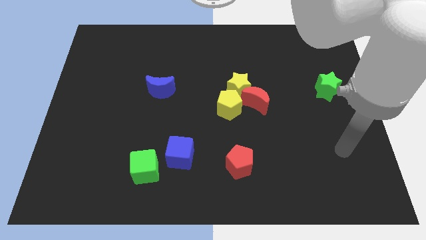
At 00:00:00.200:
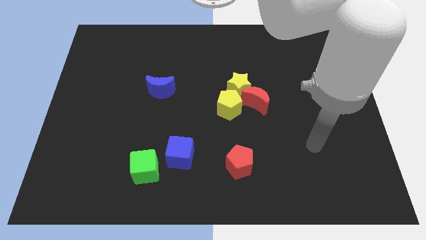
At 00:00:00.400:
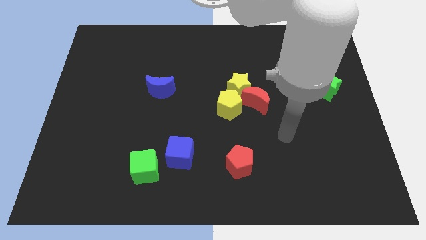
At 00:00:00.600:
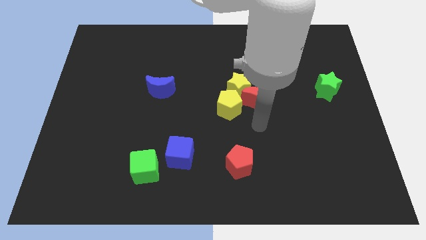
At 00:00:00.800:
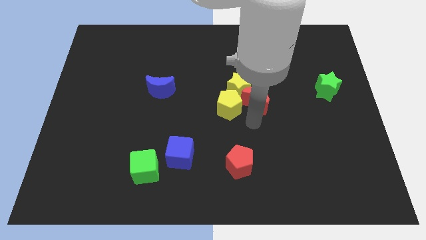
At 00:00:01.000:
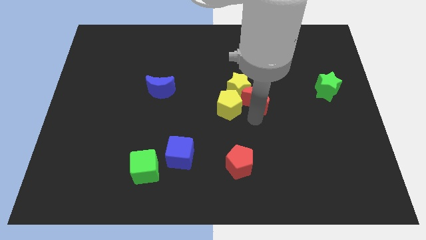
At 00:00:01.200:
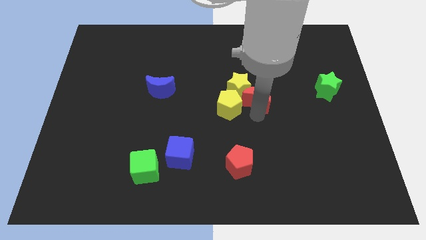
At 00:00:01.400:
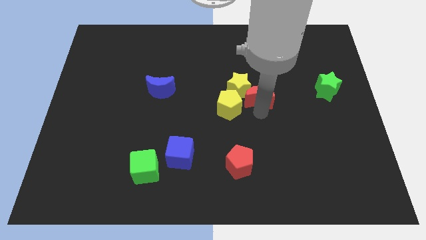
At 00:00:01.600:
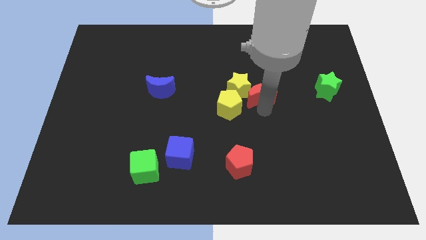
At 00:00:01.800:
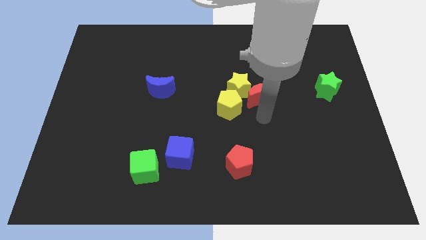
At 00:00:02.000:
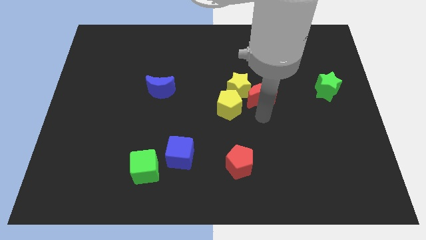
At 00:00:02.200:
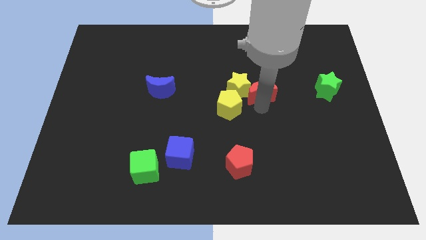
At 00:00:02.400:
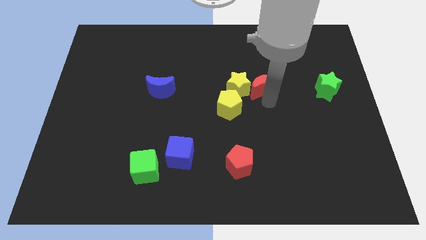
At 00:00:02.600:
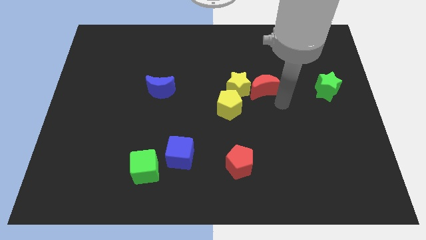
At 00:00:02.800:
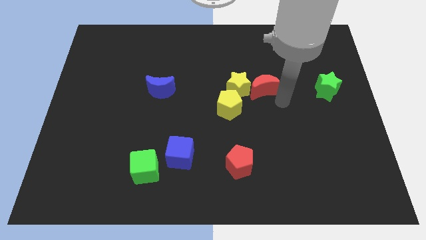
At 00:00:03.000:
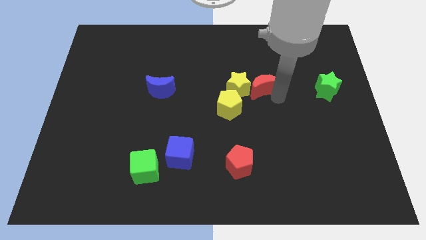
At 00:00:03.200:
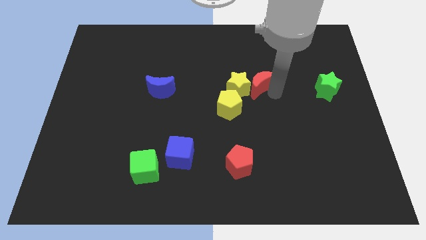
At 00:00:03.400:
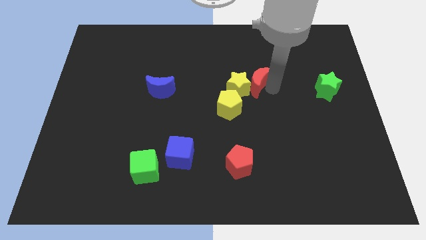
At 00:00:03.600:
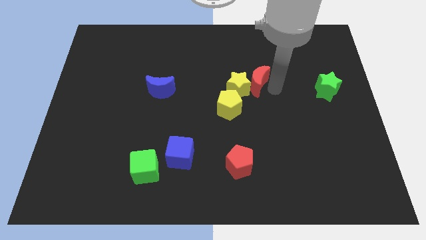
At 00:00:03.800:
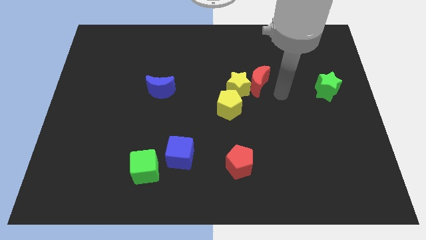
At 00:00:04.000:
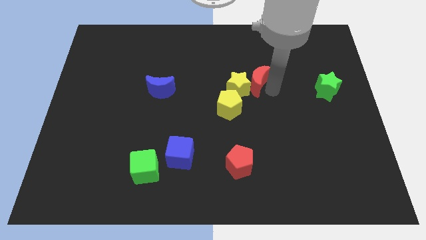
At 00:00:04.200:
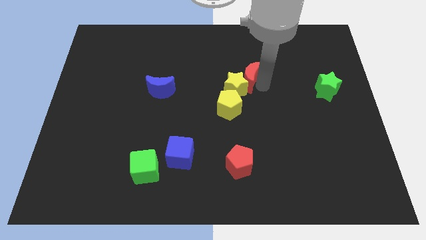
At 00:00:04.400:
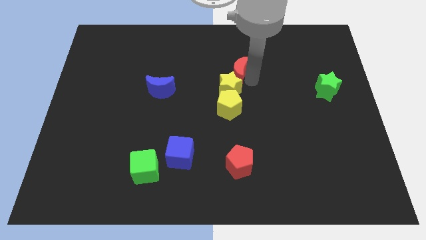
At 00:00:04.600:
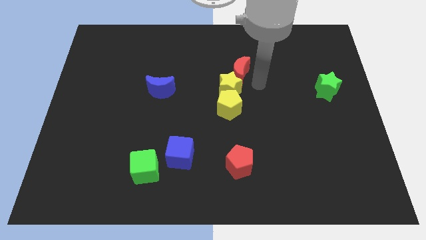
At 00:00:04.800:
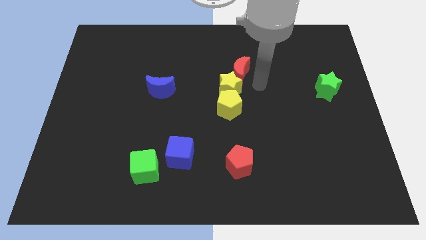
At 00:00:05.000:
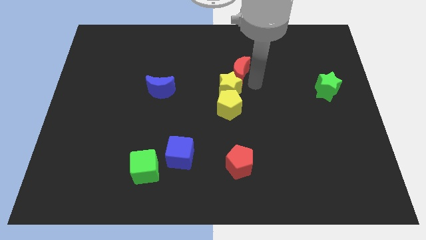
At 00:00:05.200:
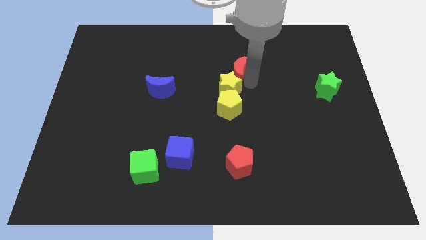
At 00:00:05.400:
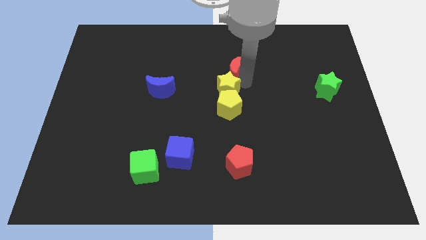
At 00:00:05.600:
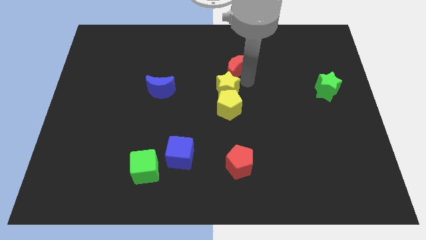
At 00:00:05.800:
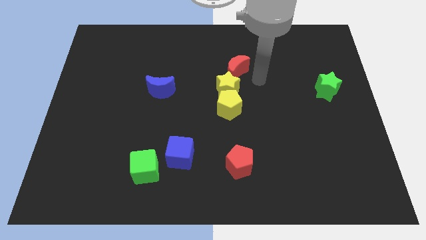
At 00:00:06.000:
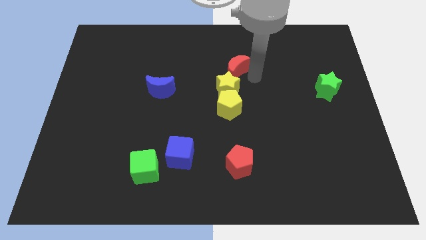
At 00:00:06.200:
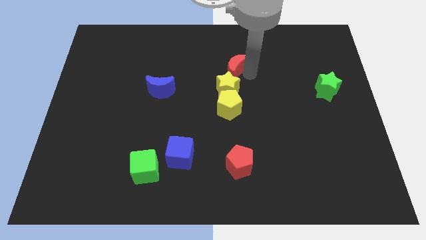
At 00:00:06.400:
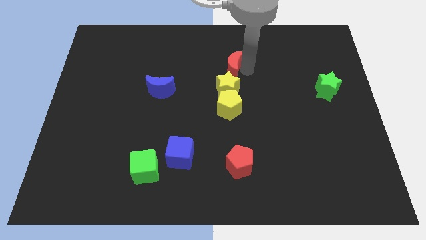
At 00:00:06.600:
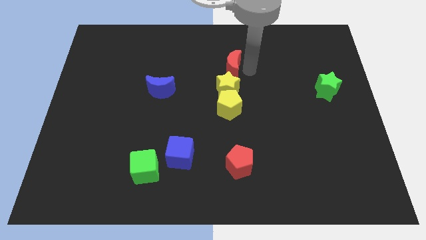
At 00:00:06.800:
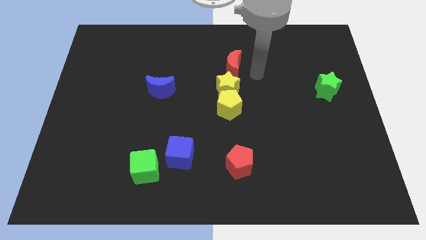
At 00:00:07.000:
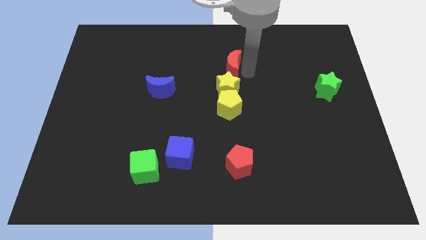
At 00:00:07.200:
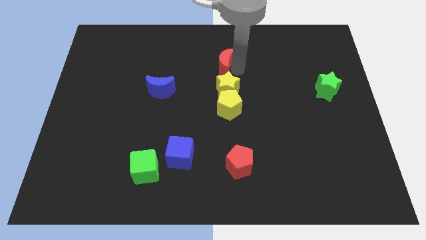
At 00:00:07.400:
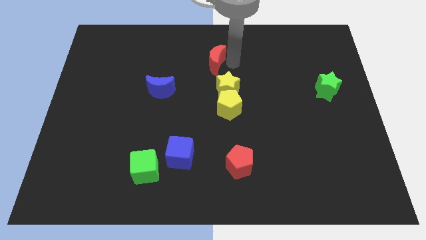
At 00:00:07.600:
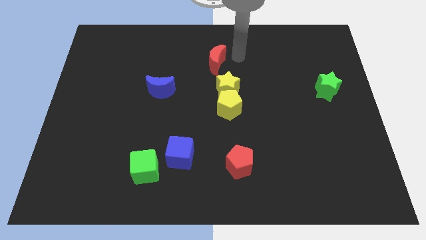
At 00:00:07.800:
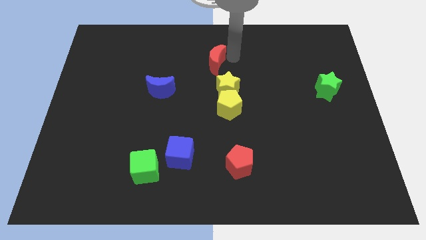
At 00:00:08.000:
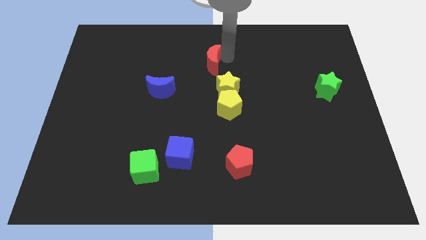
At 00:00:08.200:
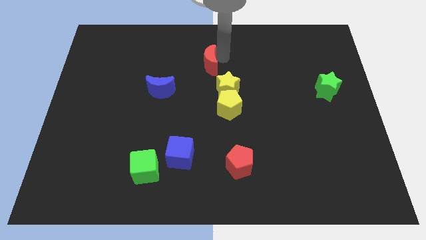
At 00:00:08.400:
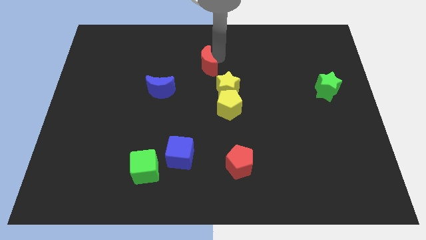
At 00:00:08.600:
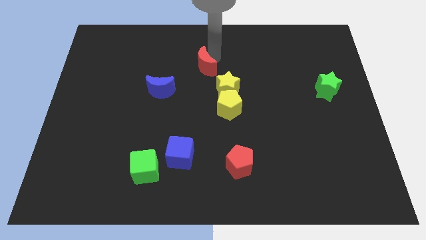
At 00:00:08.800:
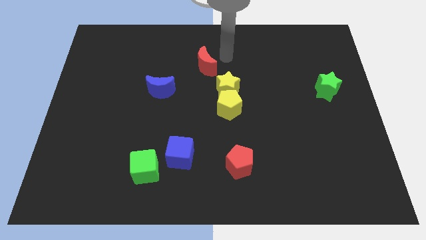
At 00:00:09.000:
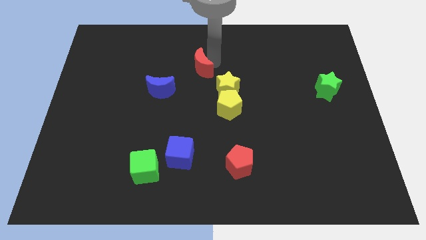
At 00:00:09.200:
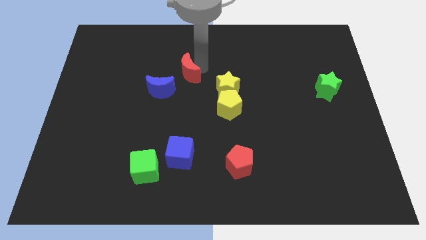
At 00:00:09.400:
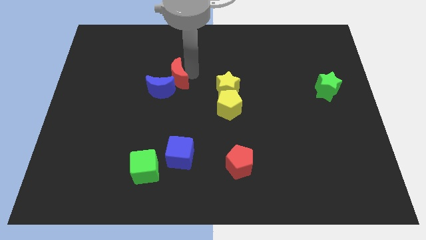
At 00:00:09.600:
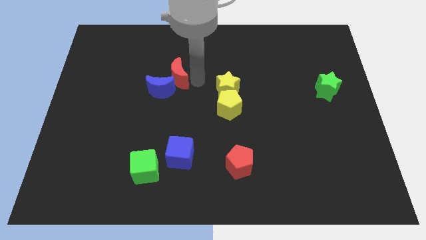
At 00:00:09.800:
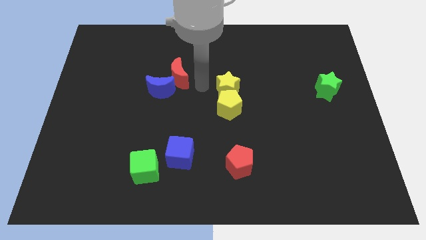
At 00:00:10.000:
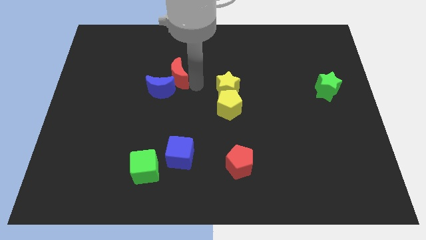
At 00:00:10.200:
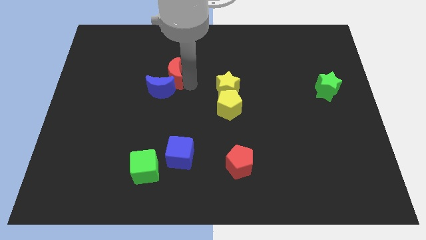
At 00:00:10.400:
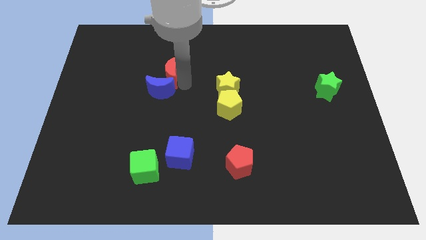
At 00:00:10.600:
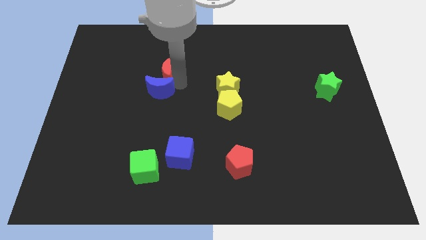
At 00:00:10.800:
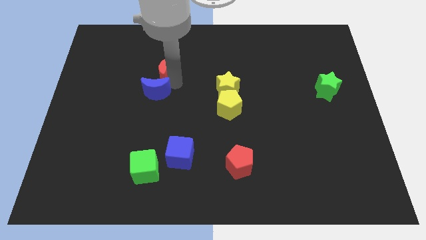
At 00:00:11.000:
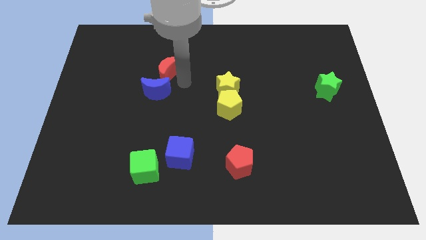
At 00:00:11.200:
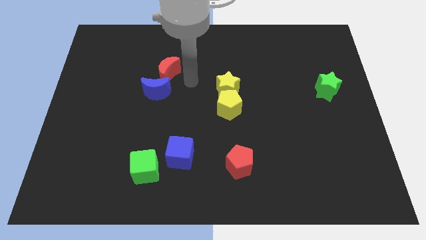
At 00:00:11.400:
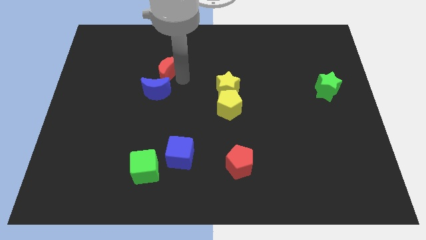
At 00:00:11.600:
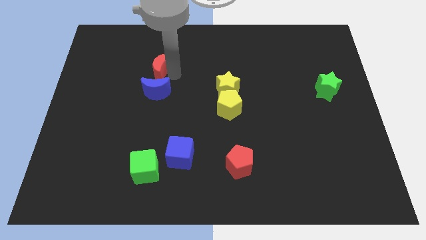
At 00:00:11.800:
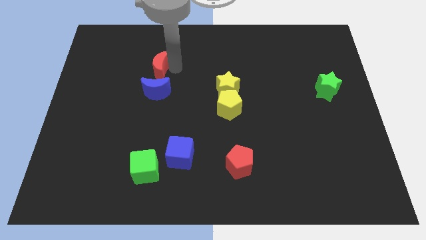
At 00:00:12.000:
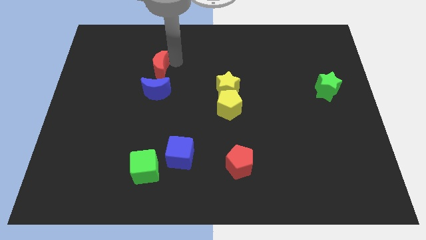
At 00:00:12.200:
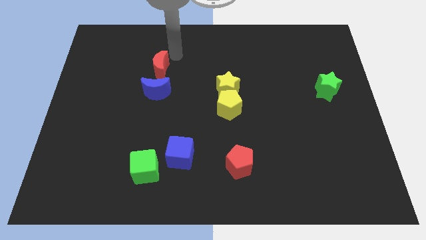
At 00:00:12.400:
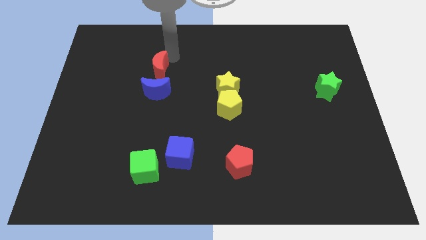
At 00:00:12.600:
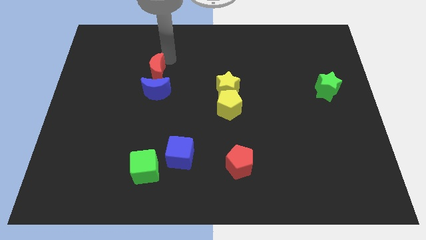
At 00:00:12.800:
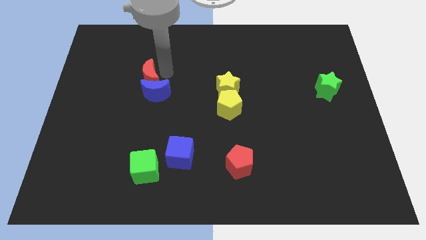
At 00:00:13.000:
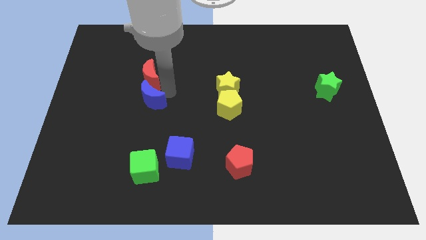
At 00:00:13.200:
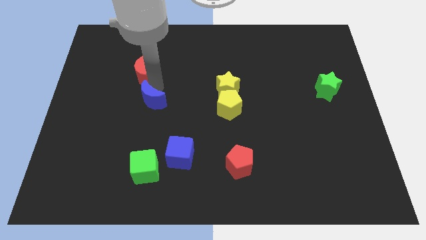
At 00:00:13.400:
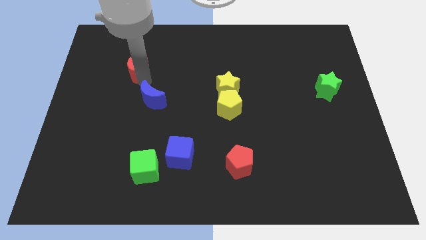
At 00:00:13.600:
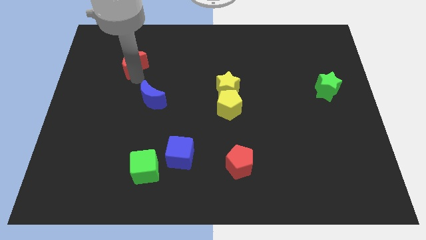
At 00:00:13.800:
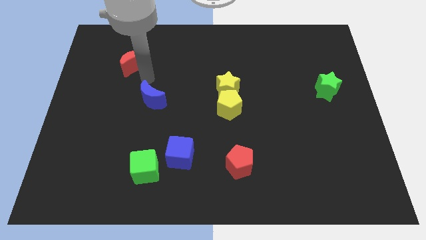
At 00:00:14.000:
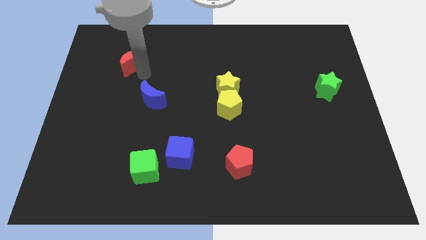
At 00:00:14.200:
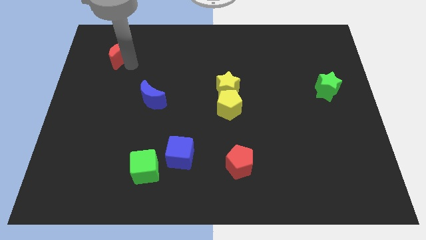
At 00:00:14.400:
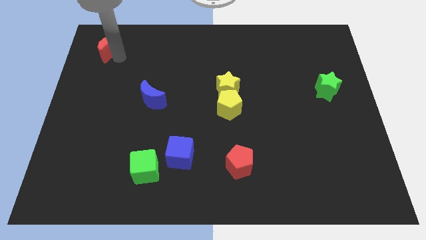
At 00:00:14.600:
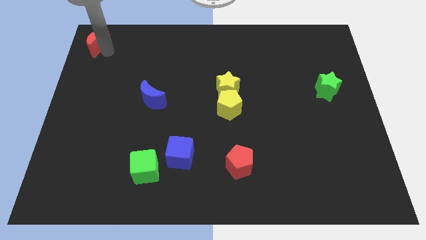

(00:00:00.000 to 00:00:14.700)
slide the red moon to the upper left corner
